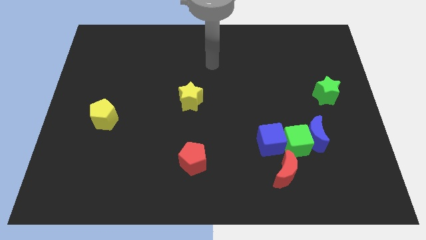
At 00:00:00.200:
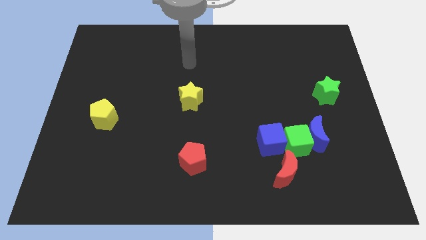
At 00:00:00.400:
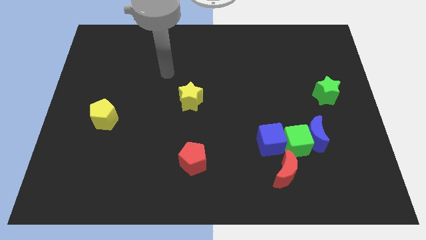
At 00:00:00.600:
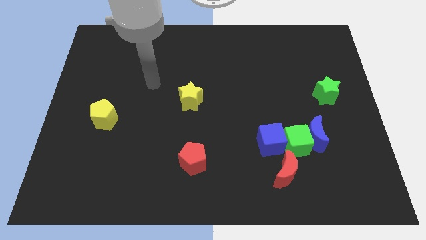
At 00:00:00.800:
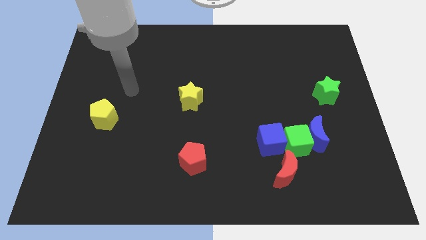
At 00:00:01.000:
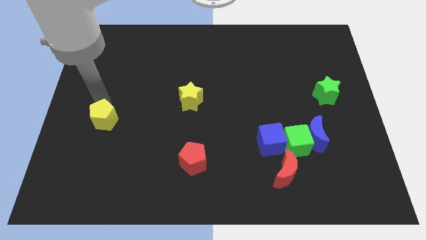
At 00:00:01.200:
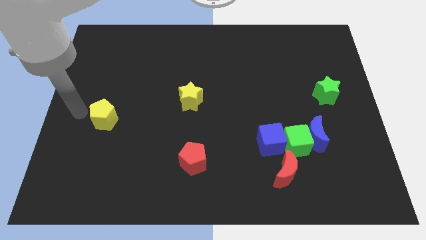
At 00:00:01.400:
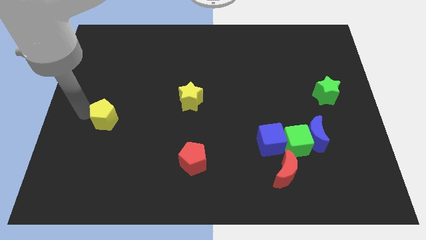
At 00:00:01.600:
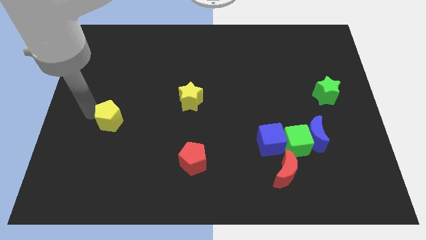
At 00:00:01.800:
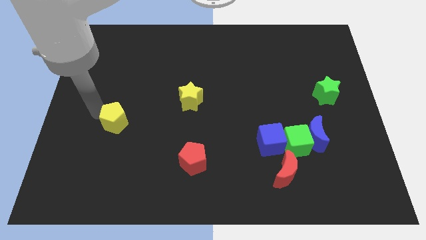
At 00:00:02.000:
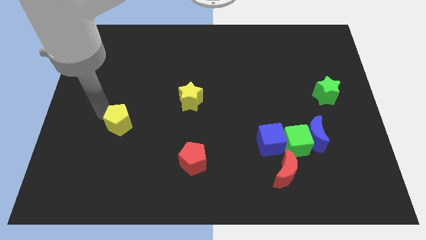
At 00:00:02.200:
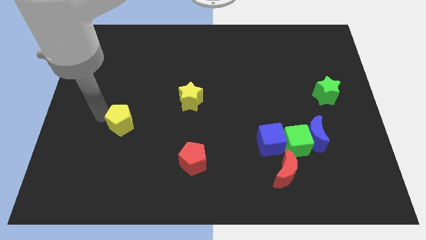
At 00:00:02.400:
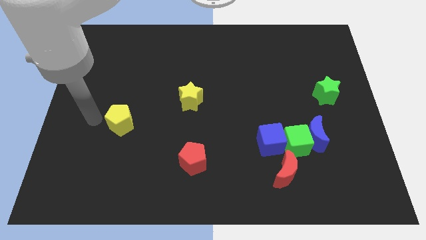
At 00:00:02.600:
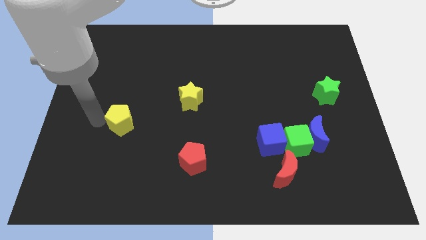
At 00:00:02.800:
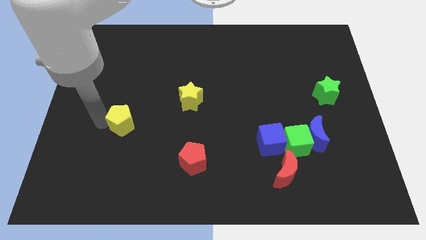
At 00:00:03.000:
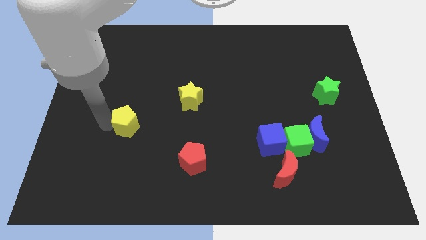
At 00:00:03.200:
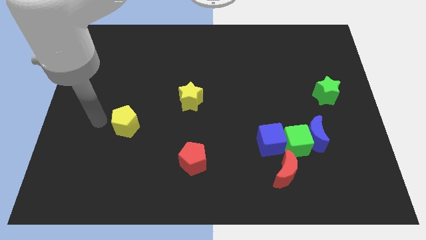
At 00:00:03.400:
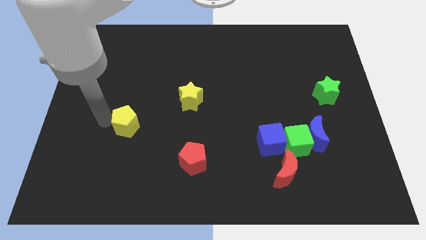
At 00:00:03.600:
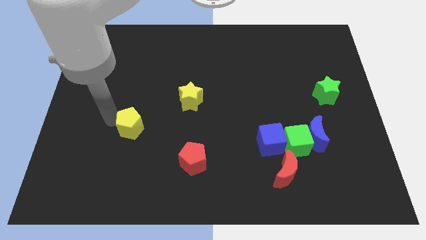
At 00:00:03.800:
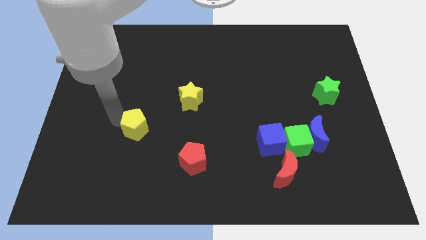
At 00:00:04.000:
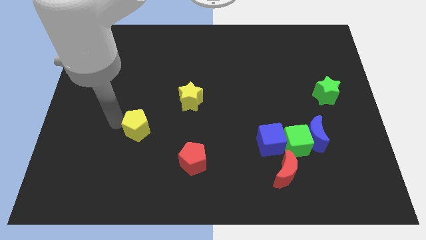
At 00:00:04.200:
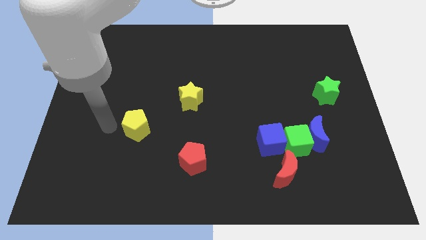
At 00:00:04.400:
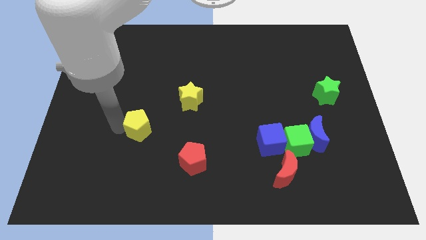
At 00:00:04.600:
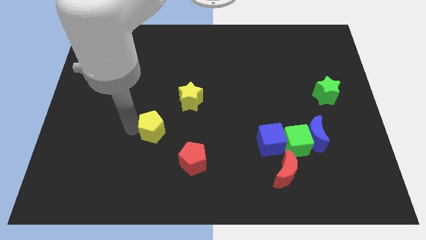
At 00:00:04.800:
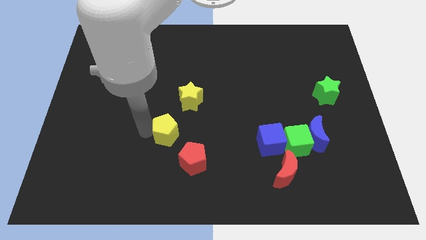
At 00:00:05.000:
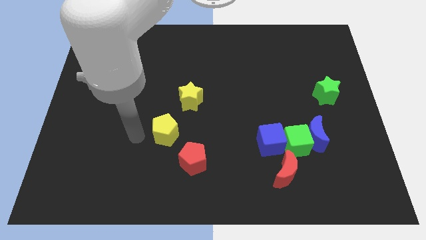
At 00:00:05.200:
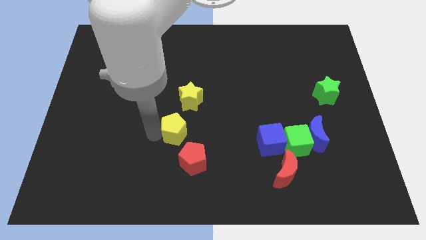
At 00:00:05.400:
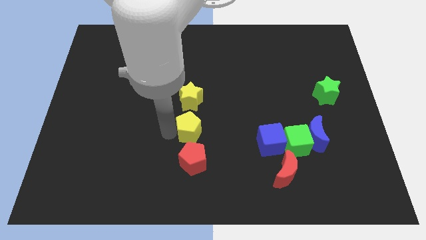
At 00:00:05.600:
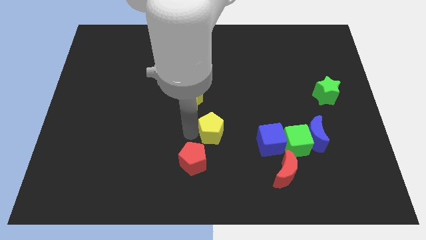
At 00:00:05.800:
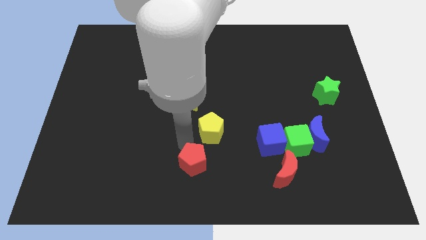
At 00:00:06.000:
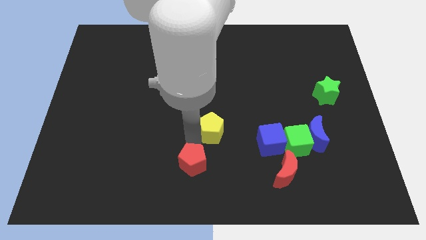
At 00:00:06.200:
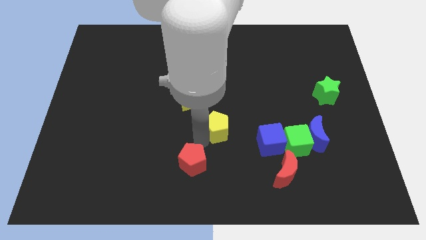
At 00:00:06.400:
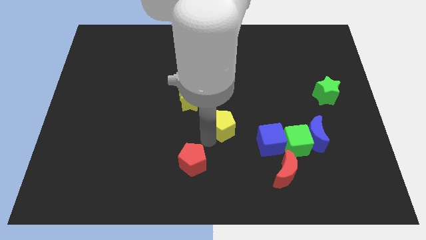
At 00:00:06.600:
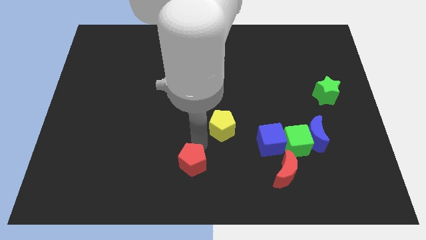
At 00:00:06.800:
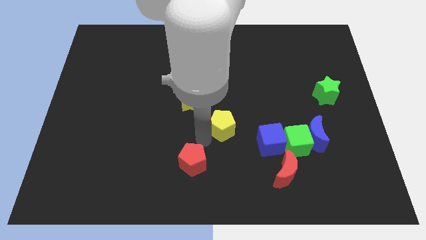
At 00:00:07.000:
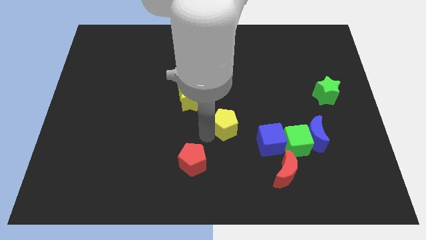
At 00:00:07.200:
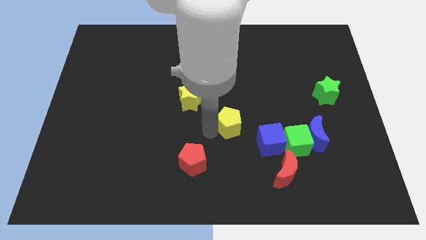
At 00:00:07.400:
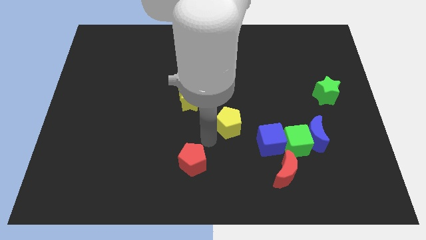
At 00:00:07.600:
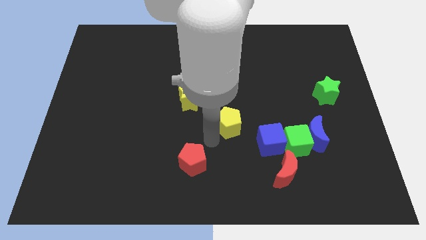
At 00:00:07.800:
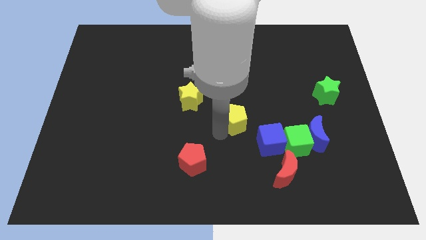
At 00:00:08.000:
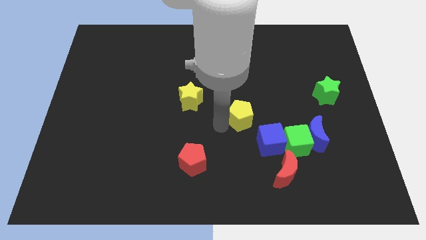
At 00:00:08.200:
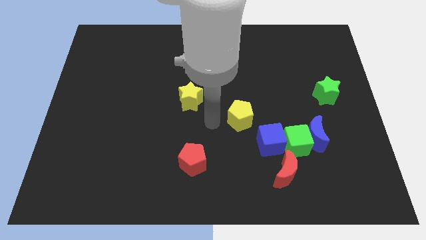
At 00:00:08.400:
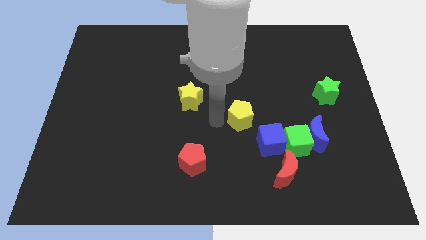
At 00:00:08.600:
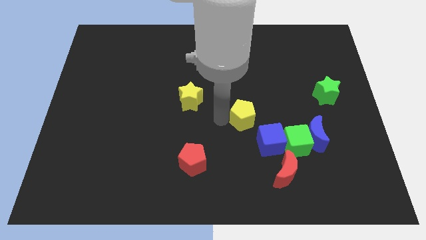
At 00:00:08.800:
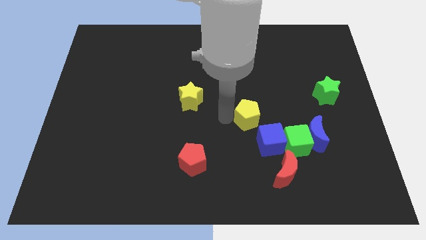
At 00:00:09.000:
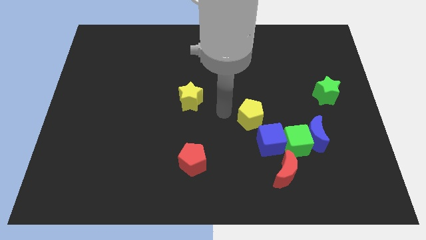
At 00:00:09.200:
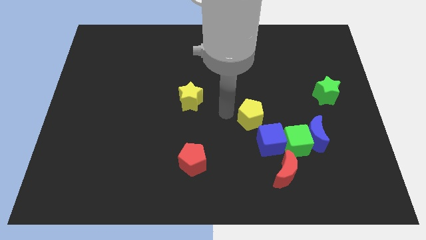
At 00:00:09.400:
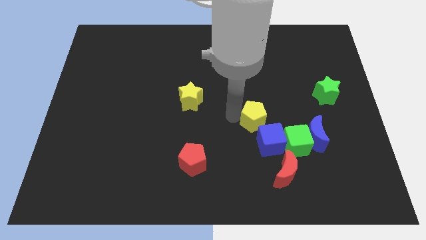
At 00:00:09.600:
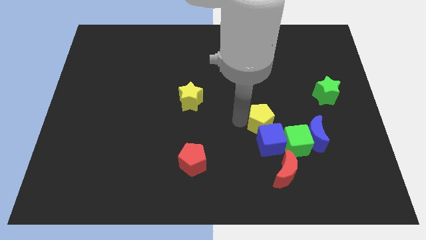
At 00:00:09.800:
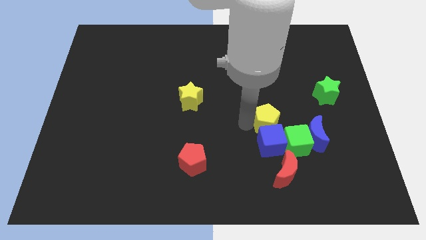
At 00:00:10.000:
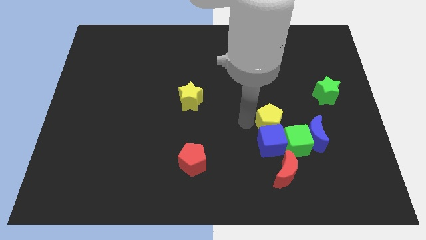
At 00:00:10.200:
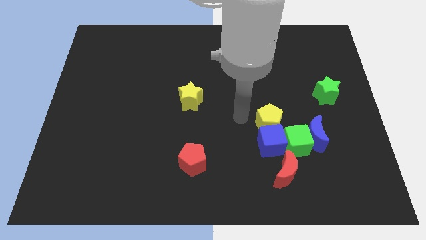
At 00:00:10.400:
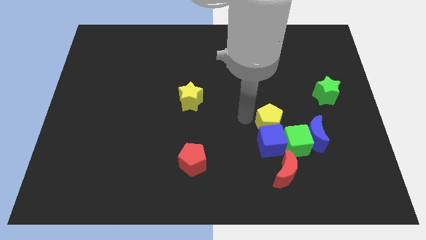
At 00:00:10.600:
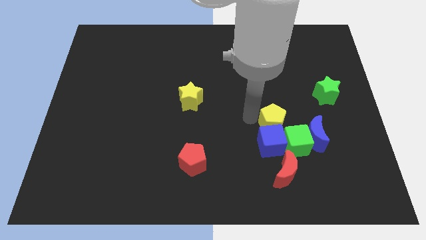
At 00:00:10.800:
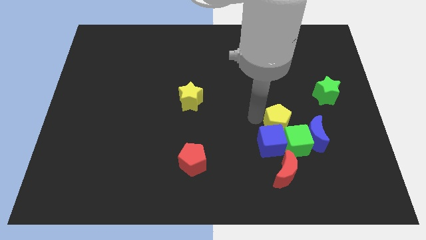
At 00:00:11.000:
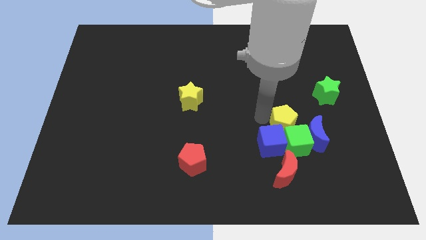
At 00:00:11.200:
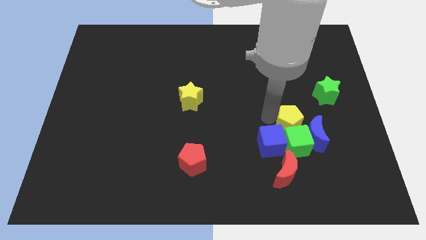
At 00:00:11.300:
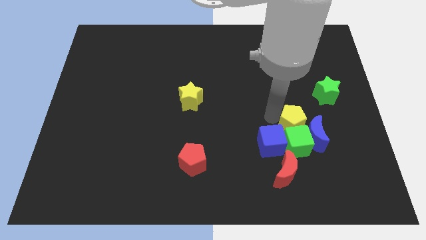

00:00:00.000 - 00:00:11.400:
slide the yellow pentagon towards the blue moon

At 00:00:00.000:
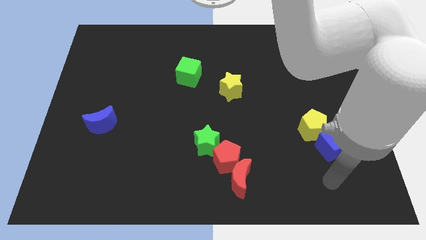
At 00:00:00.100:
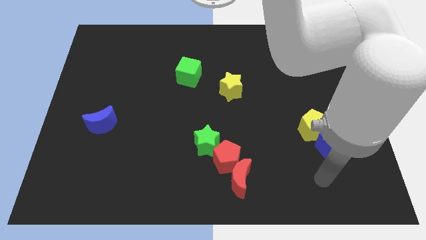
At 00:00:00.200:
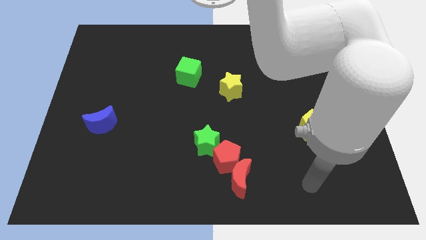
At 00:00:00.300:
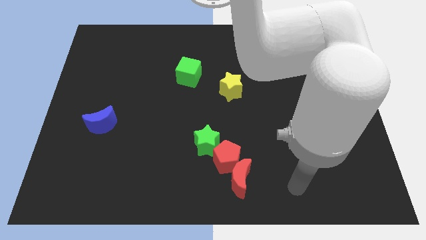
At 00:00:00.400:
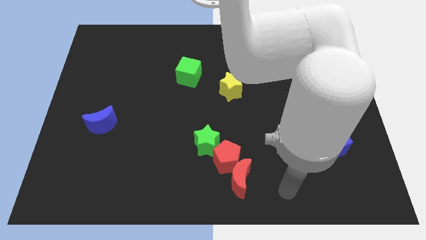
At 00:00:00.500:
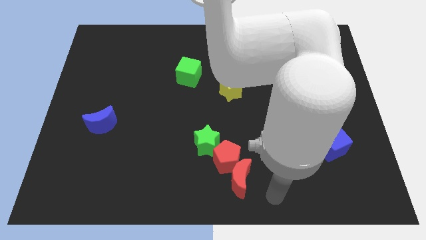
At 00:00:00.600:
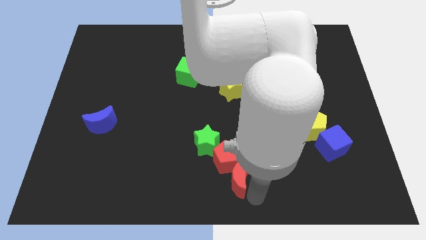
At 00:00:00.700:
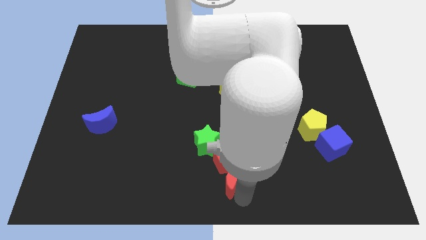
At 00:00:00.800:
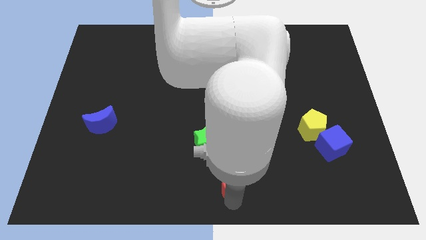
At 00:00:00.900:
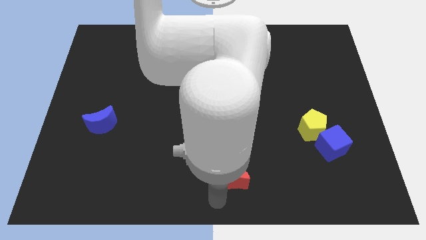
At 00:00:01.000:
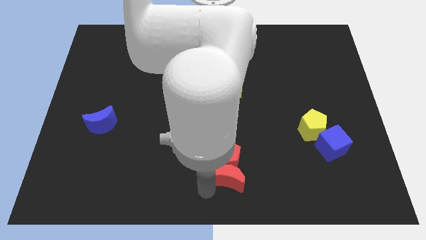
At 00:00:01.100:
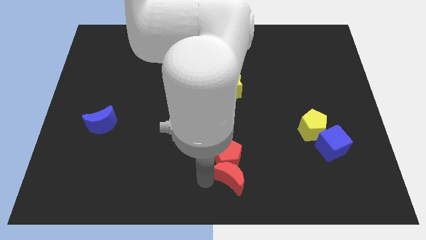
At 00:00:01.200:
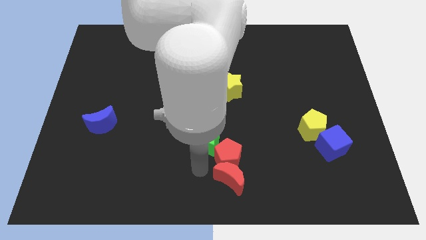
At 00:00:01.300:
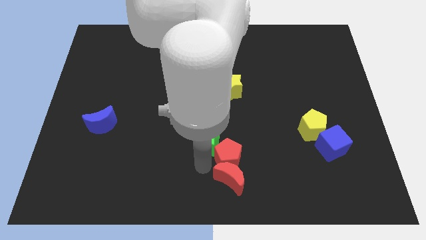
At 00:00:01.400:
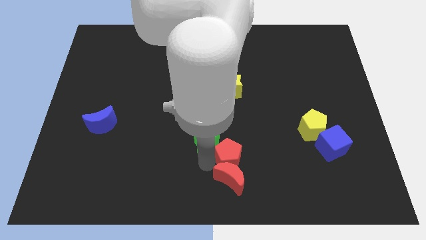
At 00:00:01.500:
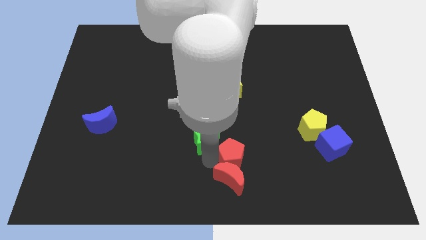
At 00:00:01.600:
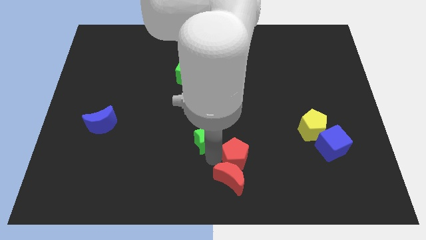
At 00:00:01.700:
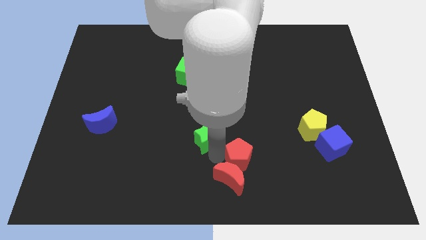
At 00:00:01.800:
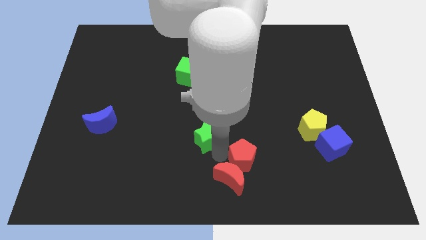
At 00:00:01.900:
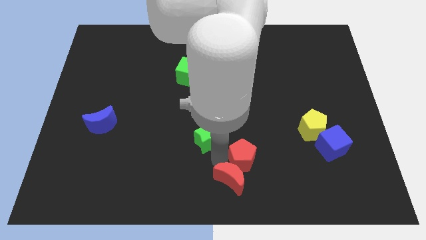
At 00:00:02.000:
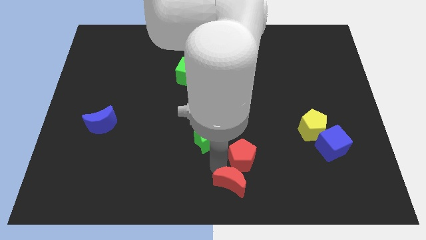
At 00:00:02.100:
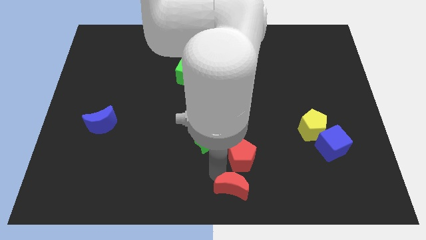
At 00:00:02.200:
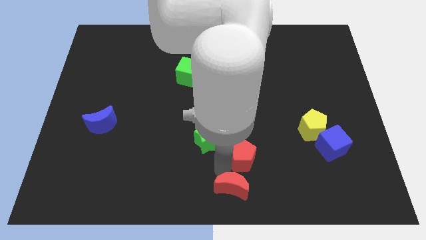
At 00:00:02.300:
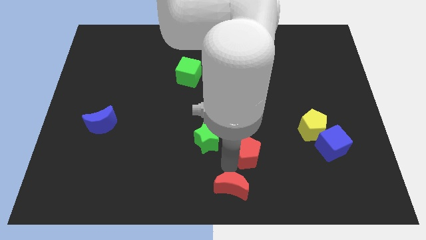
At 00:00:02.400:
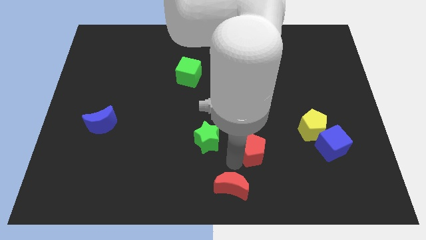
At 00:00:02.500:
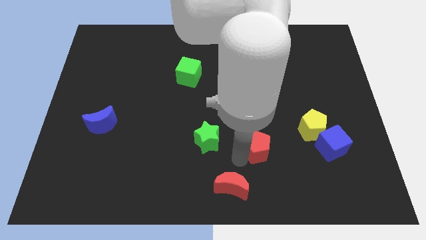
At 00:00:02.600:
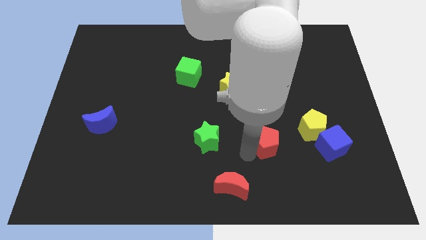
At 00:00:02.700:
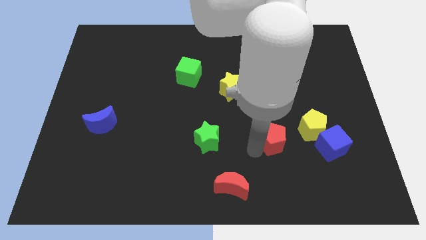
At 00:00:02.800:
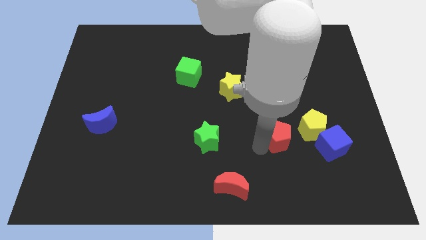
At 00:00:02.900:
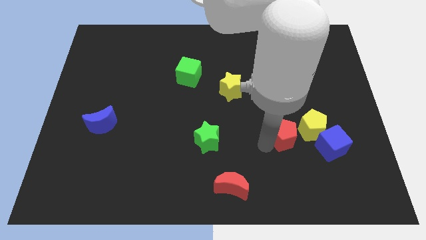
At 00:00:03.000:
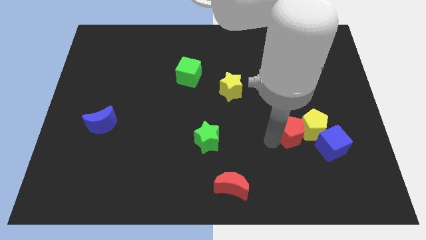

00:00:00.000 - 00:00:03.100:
put the red pentagon next to the yellow pentagon
